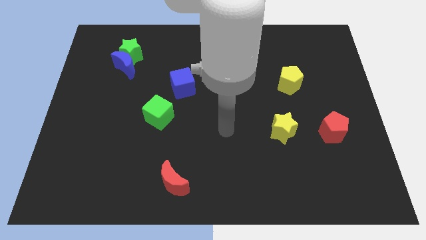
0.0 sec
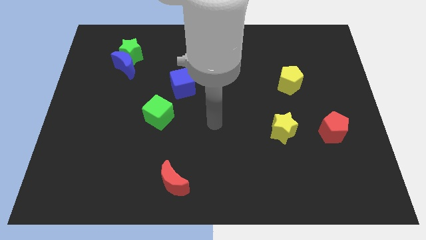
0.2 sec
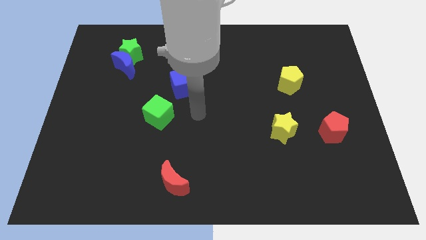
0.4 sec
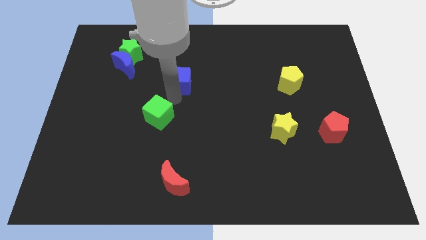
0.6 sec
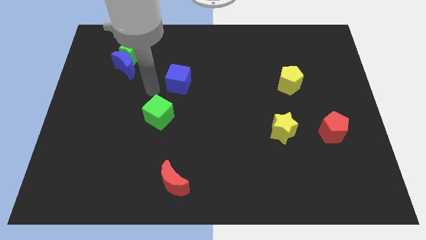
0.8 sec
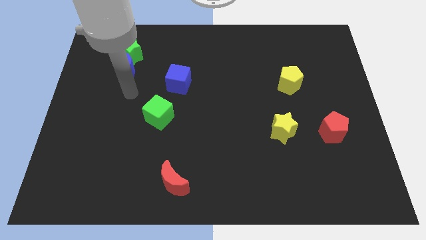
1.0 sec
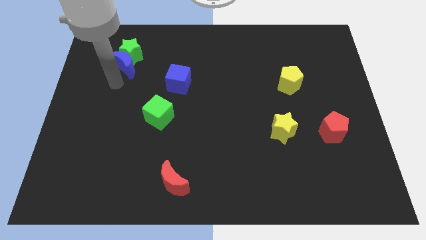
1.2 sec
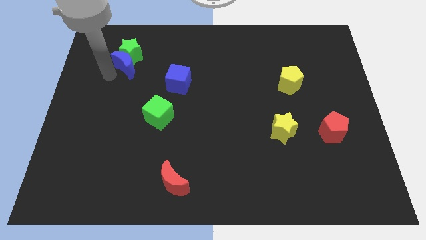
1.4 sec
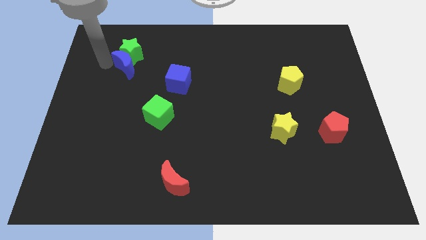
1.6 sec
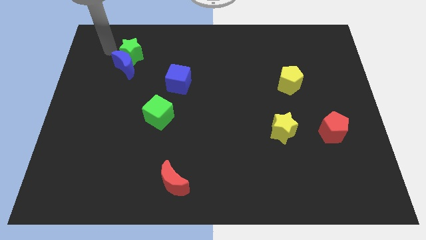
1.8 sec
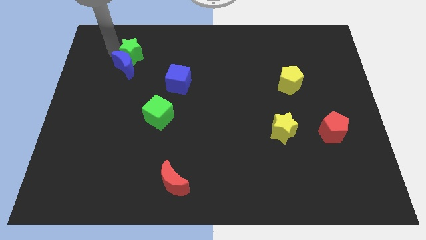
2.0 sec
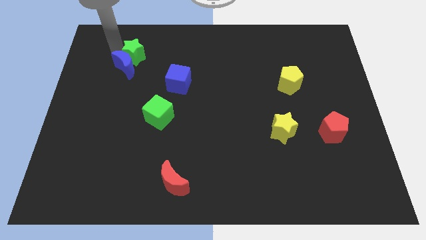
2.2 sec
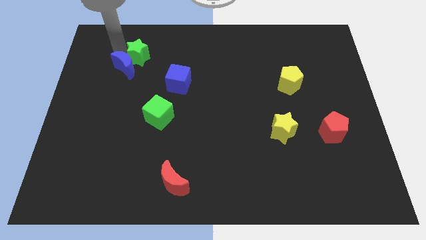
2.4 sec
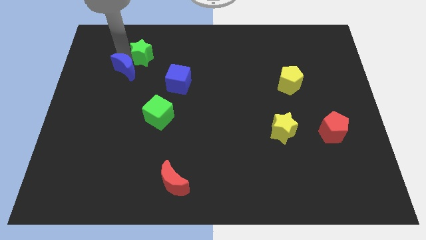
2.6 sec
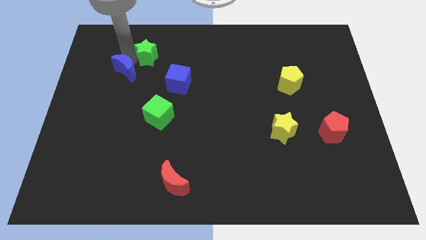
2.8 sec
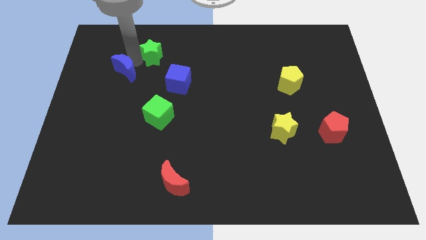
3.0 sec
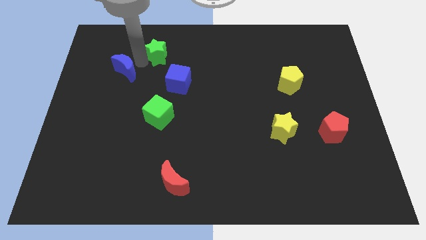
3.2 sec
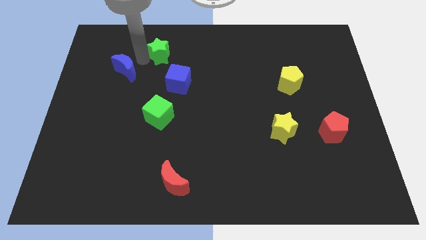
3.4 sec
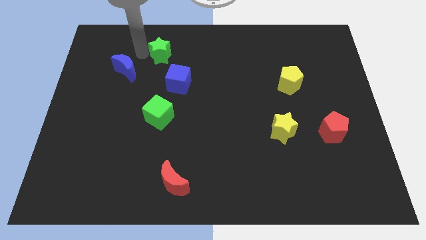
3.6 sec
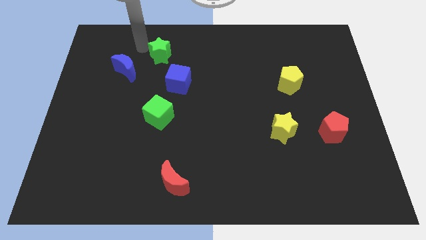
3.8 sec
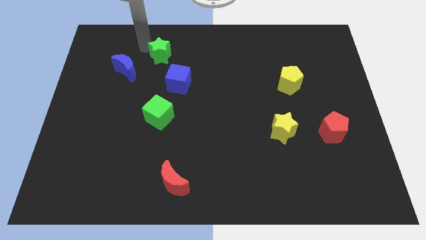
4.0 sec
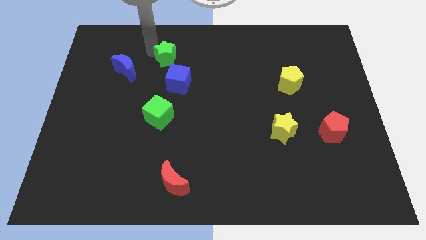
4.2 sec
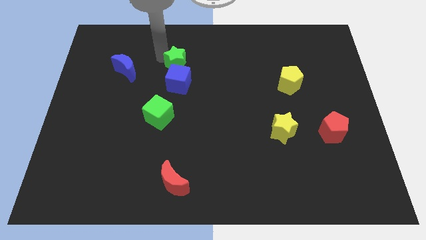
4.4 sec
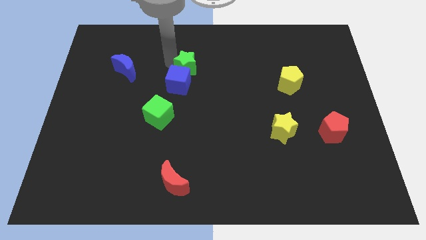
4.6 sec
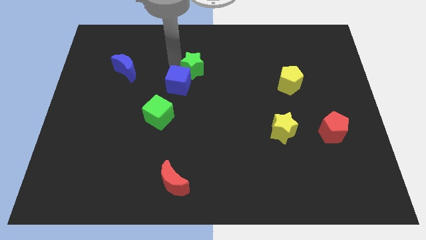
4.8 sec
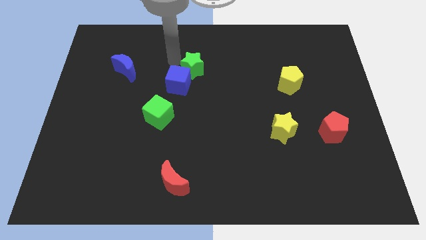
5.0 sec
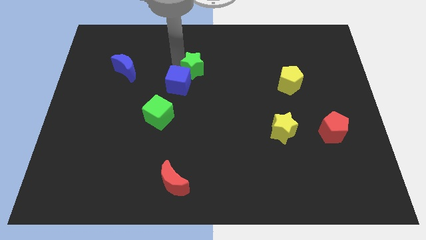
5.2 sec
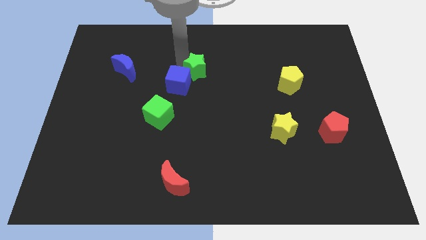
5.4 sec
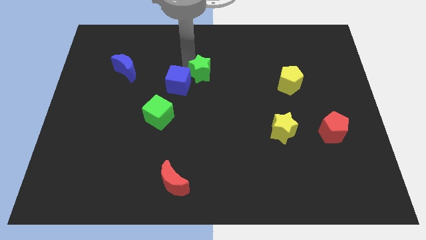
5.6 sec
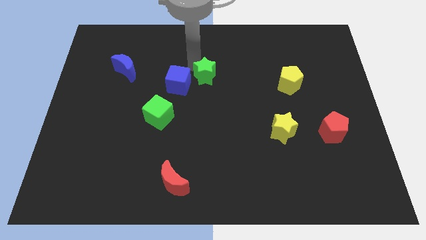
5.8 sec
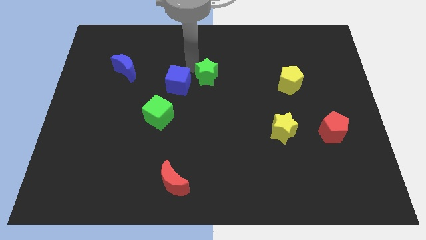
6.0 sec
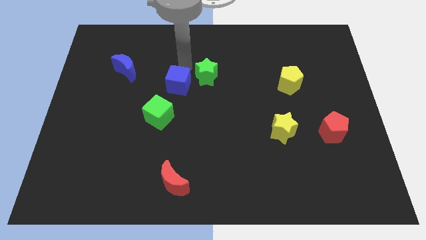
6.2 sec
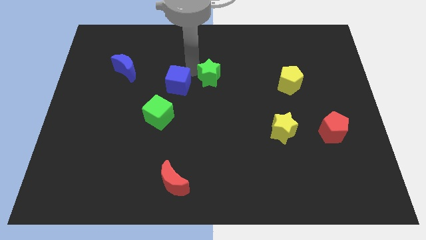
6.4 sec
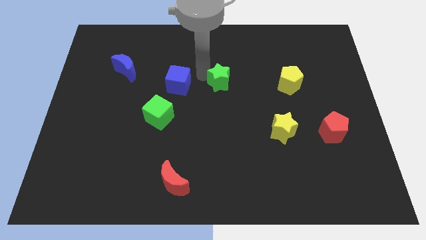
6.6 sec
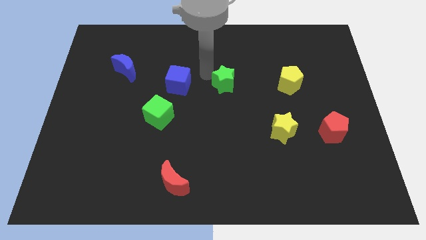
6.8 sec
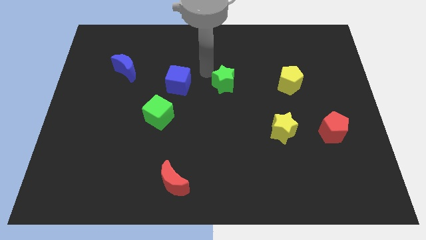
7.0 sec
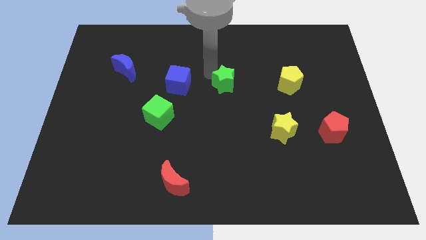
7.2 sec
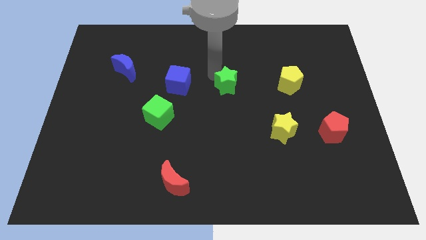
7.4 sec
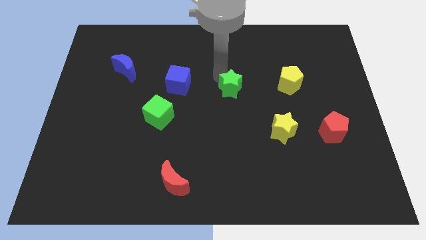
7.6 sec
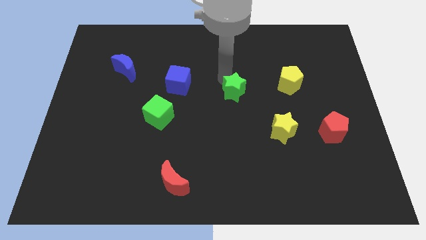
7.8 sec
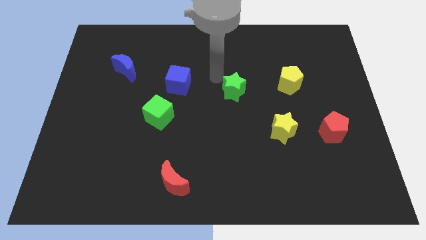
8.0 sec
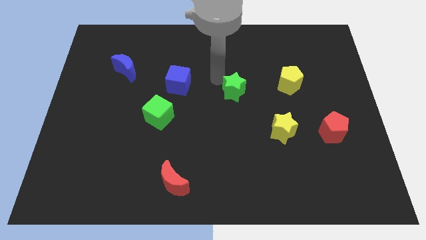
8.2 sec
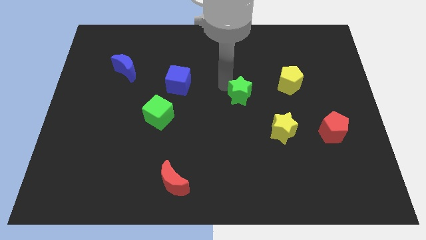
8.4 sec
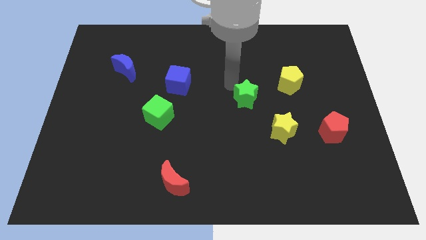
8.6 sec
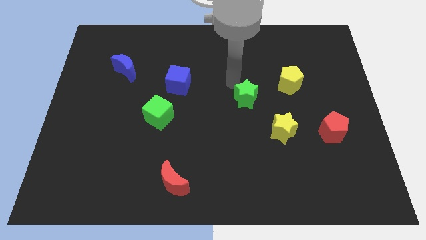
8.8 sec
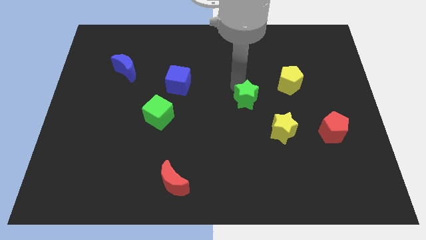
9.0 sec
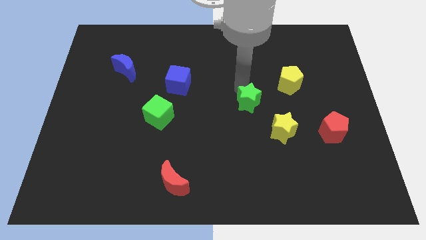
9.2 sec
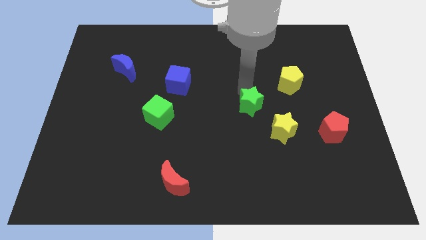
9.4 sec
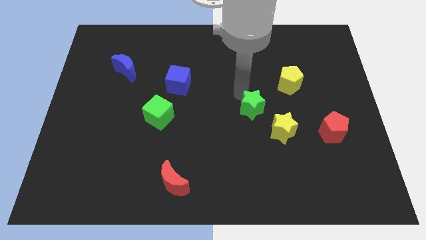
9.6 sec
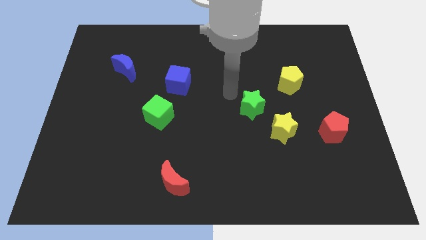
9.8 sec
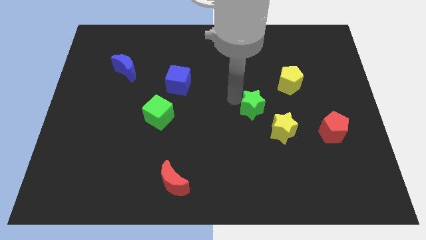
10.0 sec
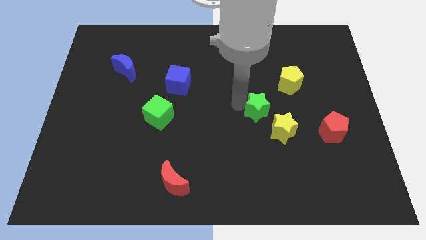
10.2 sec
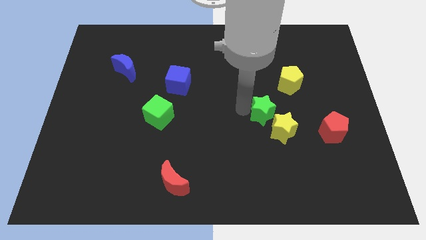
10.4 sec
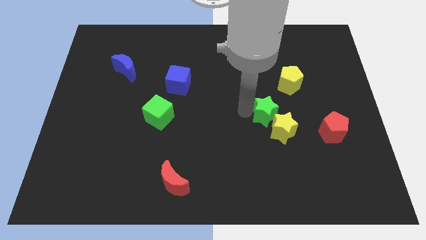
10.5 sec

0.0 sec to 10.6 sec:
slide the green star towards the yellow star
